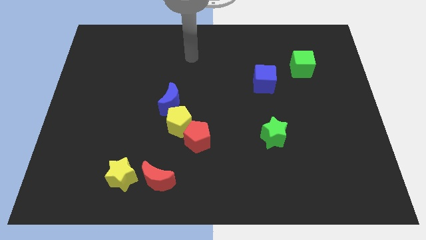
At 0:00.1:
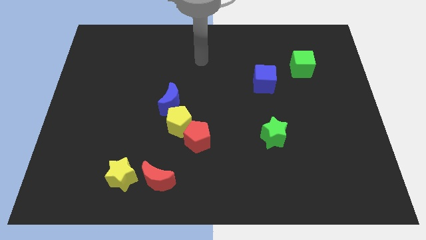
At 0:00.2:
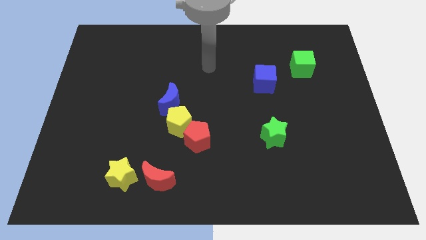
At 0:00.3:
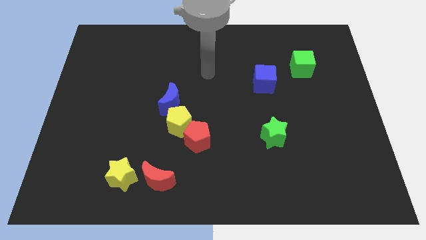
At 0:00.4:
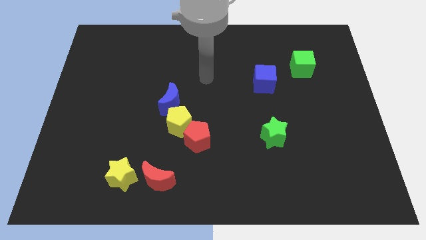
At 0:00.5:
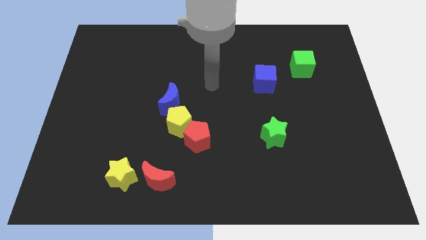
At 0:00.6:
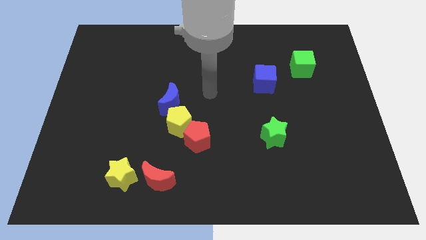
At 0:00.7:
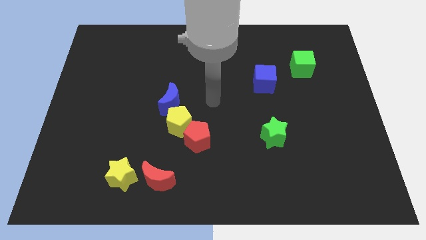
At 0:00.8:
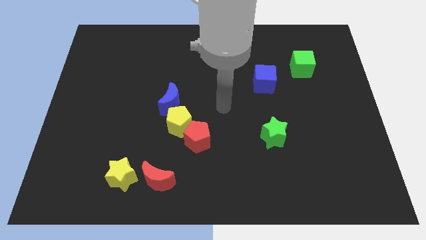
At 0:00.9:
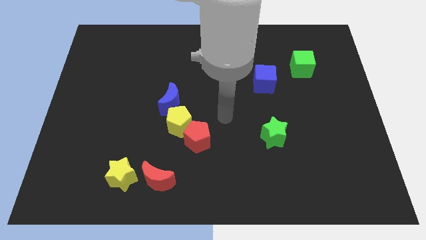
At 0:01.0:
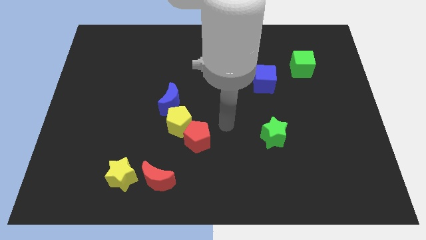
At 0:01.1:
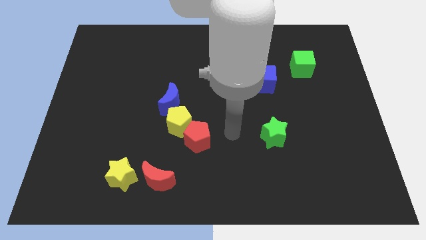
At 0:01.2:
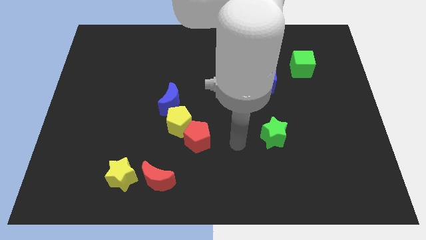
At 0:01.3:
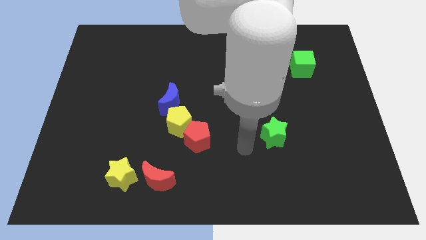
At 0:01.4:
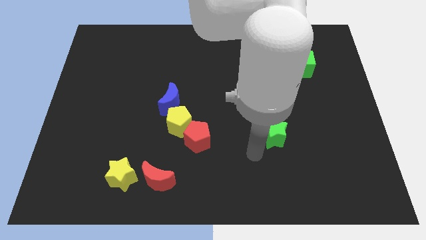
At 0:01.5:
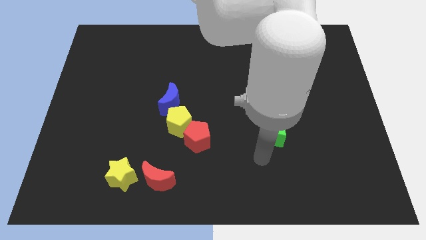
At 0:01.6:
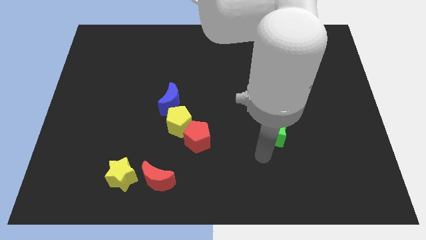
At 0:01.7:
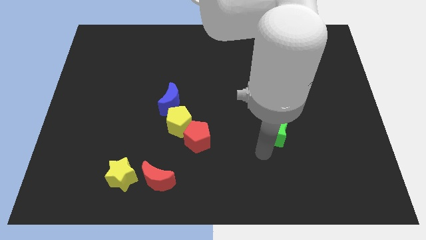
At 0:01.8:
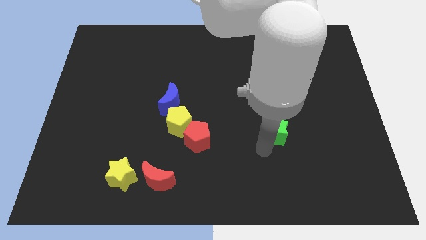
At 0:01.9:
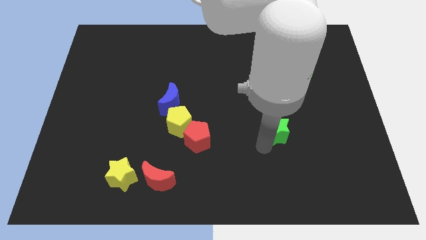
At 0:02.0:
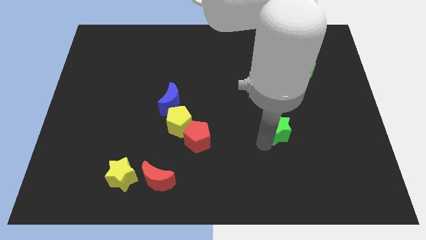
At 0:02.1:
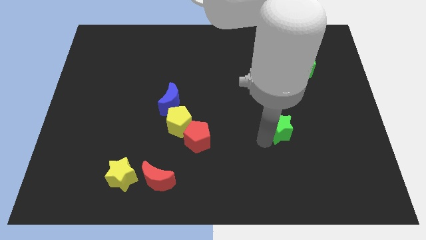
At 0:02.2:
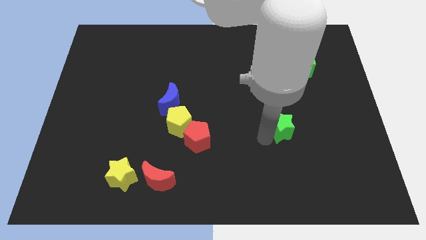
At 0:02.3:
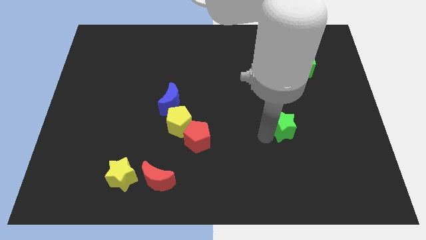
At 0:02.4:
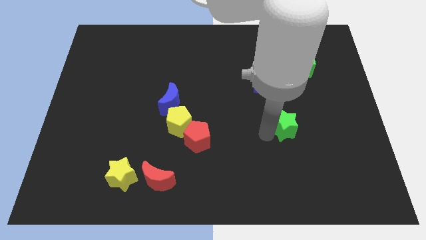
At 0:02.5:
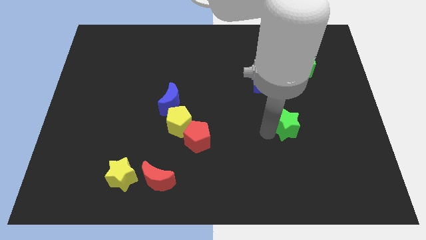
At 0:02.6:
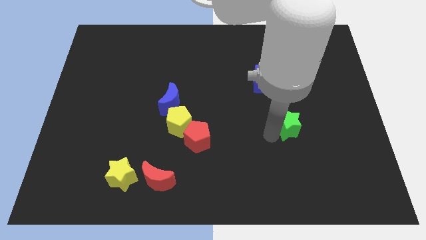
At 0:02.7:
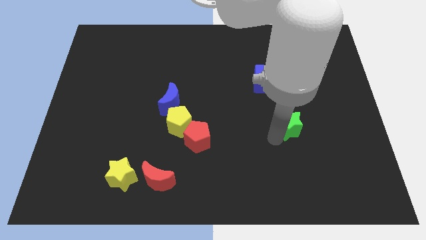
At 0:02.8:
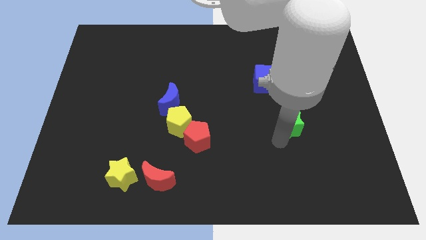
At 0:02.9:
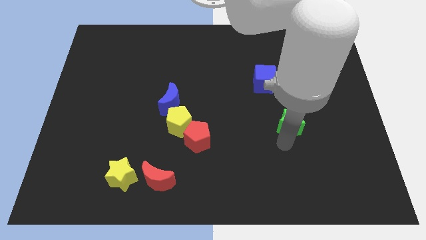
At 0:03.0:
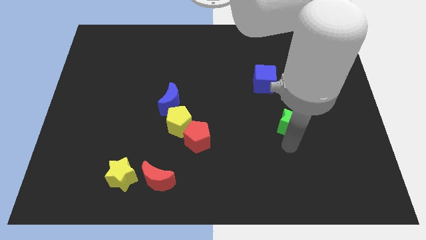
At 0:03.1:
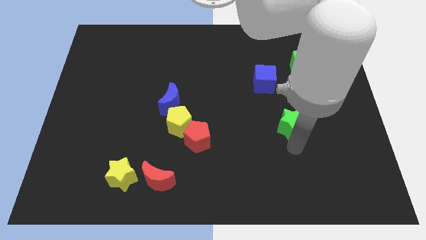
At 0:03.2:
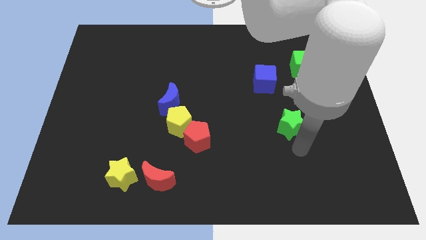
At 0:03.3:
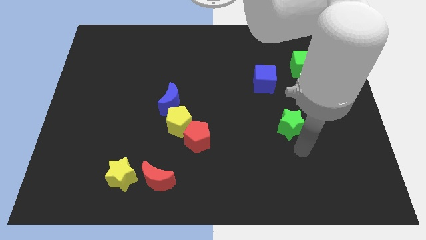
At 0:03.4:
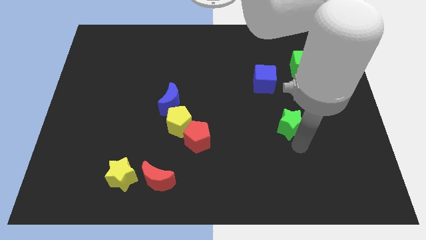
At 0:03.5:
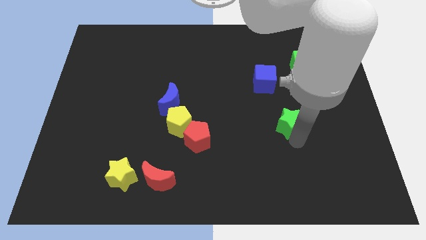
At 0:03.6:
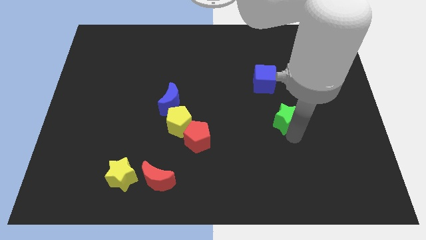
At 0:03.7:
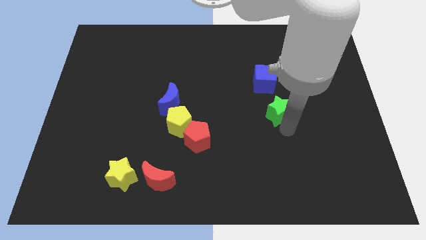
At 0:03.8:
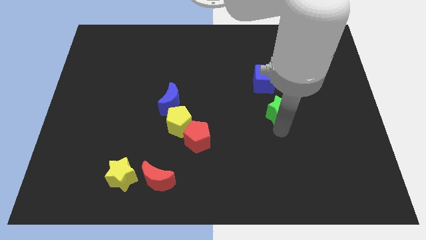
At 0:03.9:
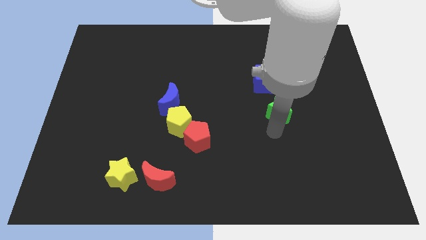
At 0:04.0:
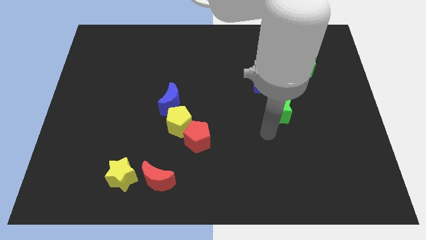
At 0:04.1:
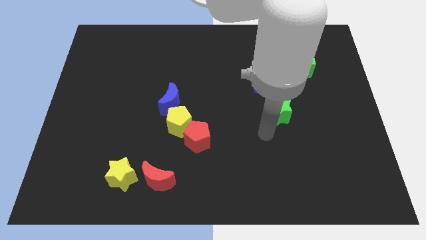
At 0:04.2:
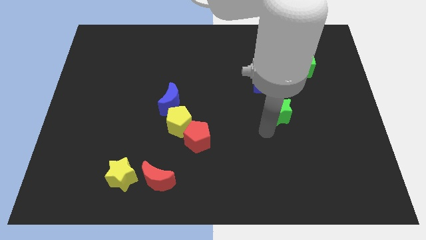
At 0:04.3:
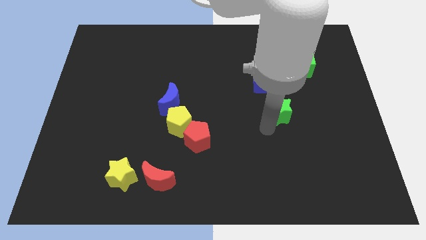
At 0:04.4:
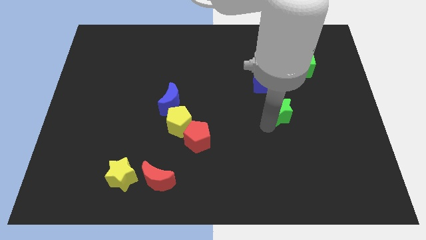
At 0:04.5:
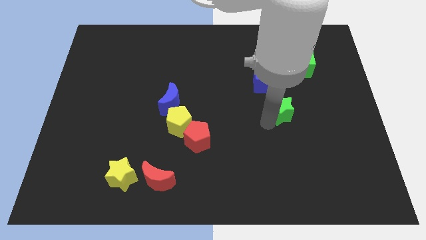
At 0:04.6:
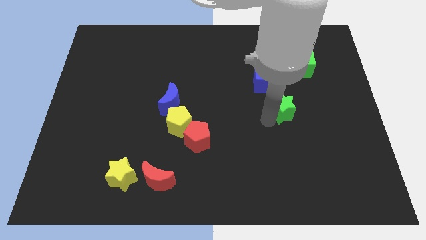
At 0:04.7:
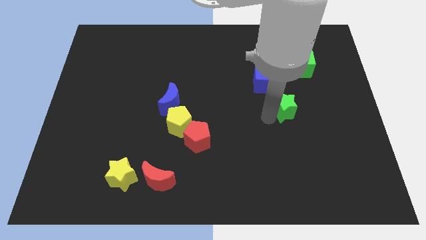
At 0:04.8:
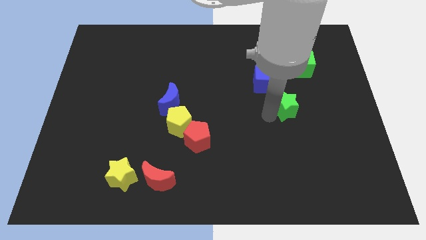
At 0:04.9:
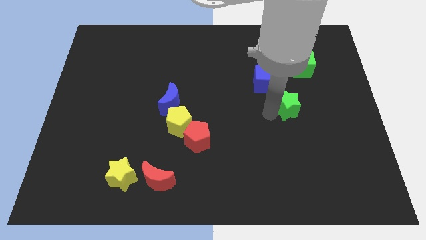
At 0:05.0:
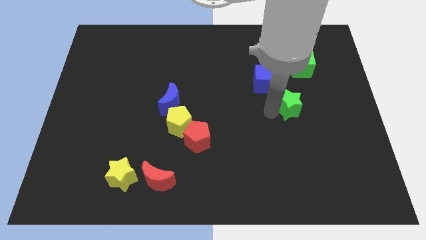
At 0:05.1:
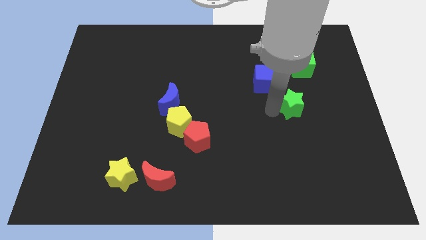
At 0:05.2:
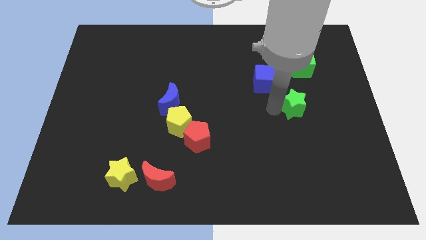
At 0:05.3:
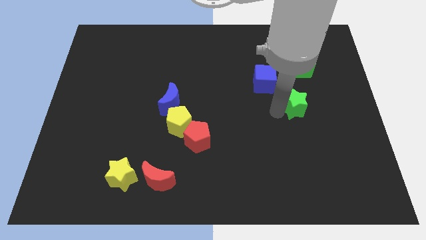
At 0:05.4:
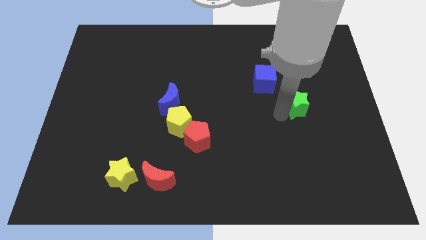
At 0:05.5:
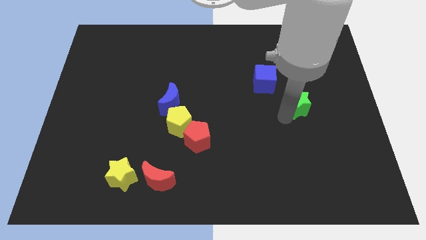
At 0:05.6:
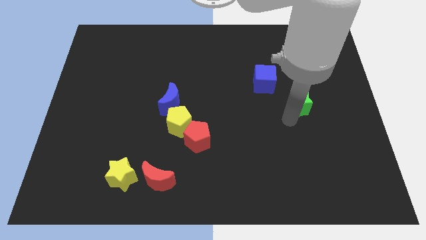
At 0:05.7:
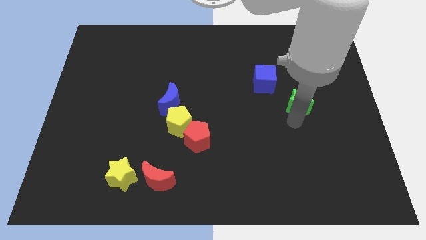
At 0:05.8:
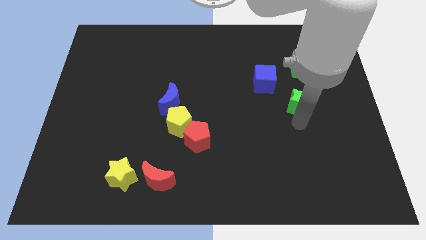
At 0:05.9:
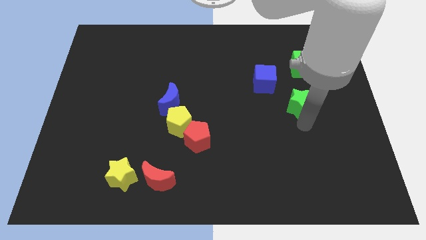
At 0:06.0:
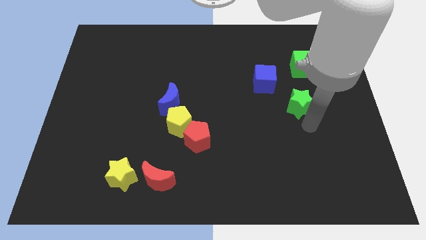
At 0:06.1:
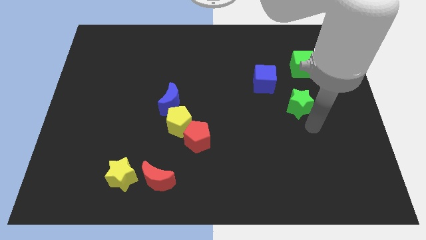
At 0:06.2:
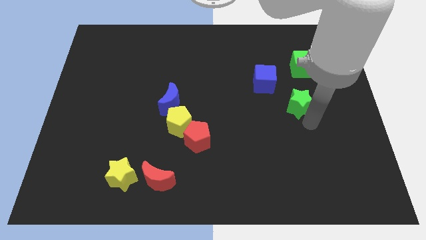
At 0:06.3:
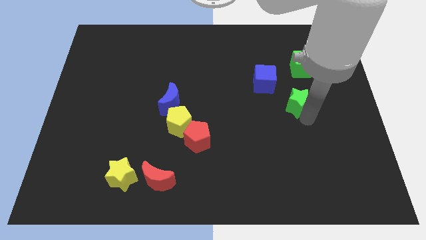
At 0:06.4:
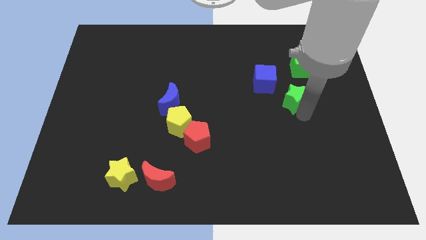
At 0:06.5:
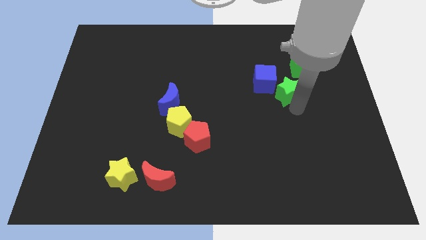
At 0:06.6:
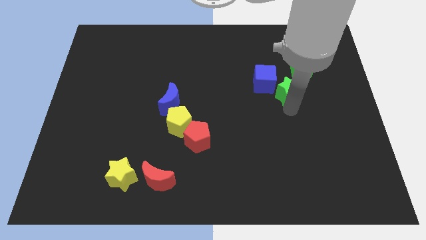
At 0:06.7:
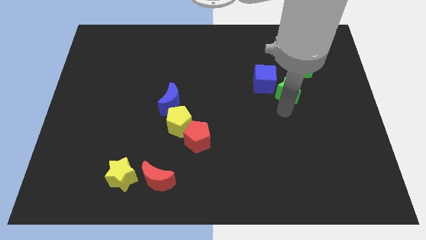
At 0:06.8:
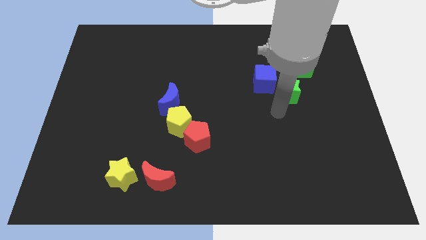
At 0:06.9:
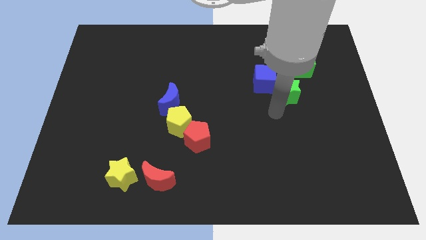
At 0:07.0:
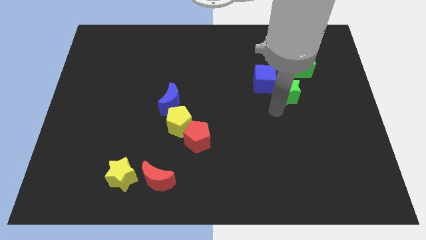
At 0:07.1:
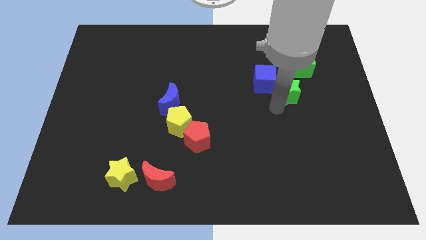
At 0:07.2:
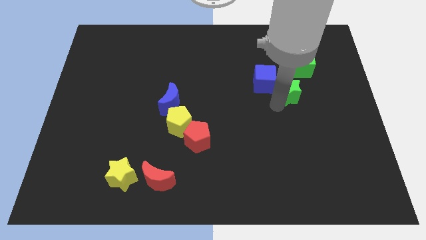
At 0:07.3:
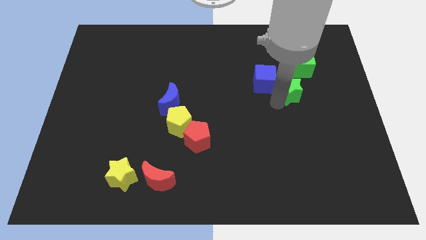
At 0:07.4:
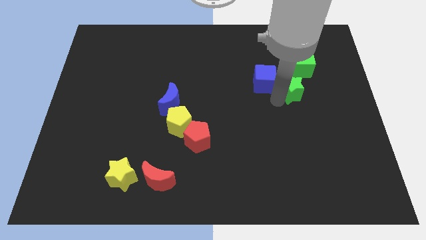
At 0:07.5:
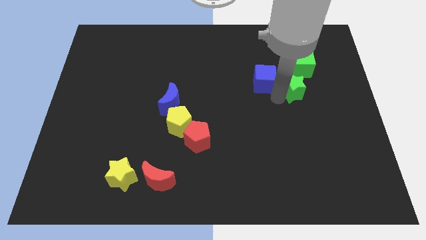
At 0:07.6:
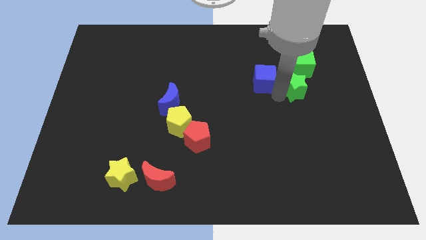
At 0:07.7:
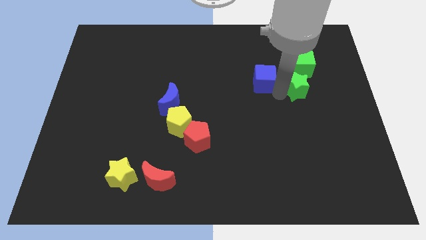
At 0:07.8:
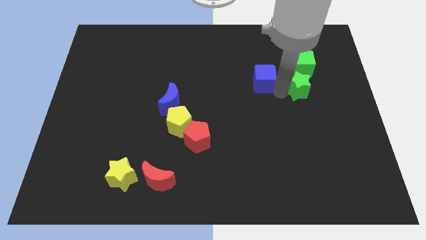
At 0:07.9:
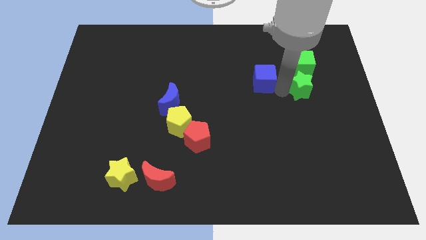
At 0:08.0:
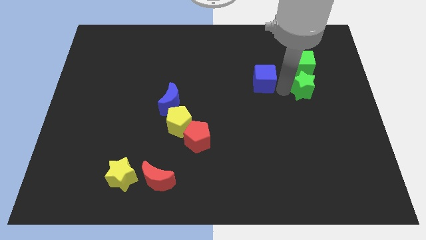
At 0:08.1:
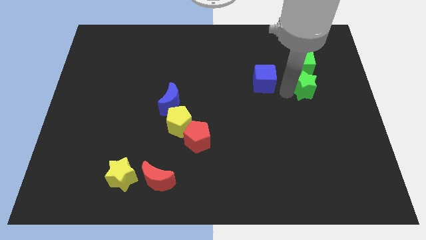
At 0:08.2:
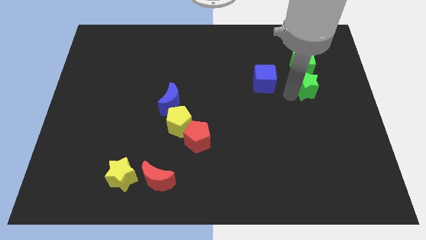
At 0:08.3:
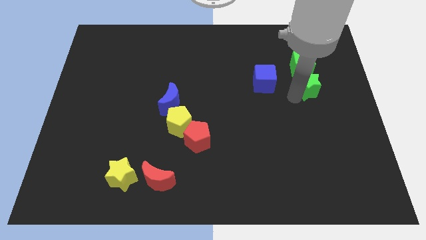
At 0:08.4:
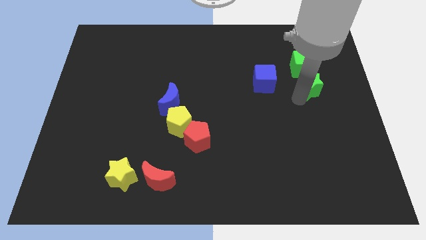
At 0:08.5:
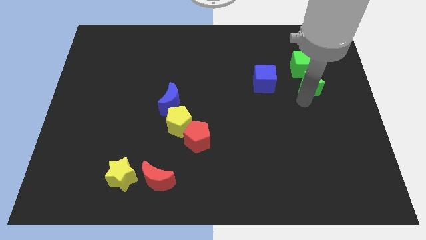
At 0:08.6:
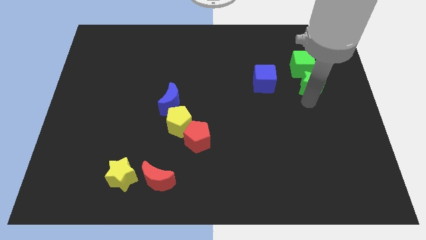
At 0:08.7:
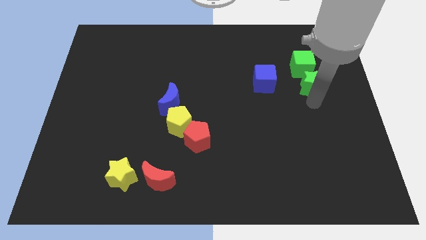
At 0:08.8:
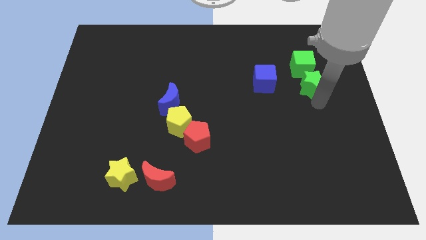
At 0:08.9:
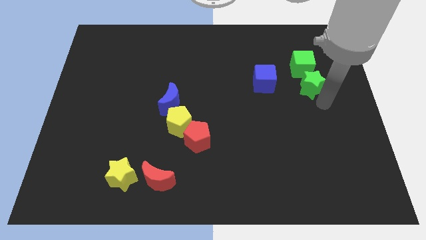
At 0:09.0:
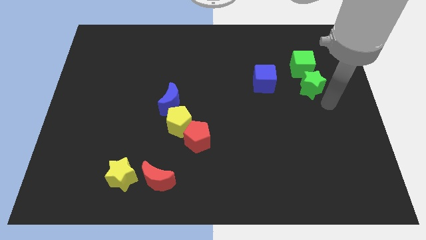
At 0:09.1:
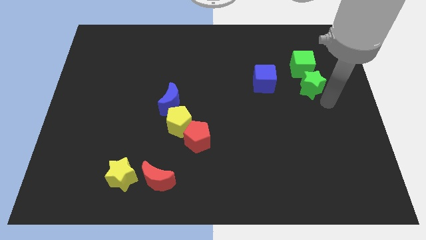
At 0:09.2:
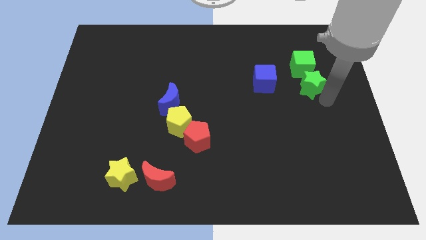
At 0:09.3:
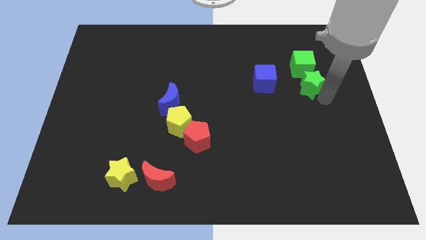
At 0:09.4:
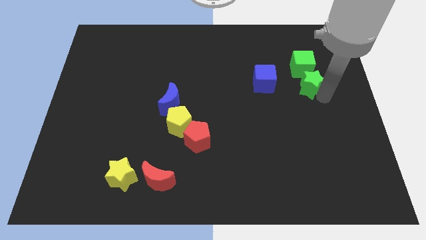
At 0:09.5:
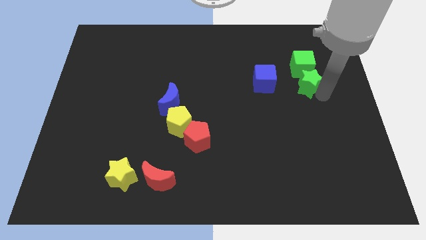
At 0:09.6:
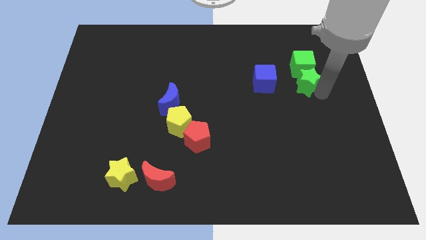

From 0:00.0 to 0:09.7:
put the green star next to the green cube
